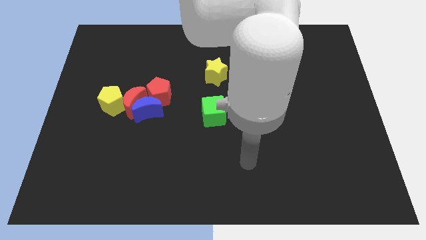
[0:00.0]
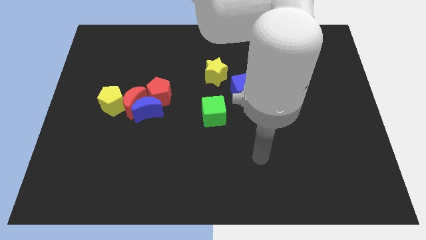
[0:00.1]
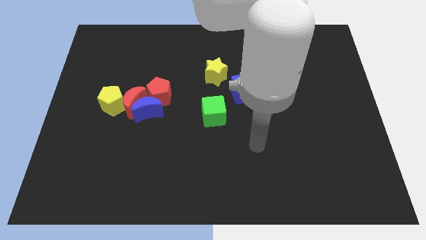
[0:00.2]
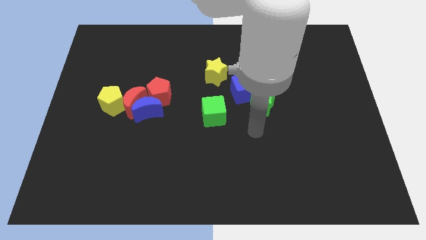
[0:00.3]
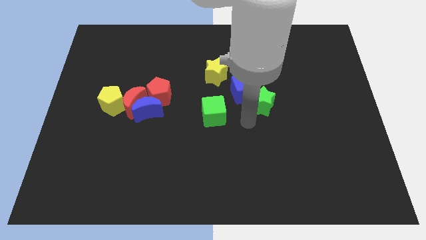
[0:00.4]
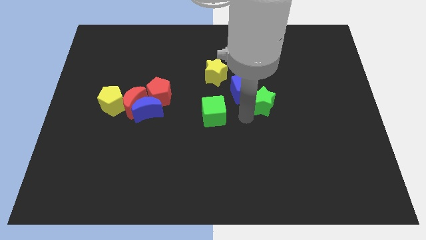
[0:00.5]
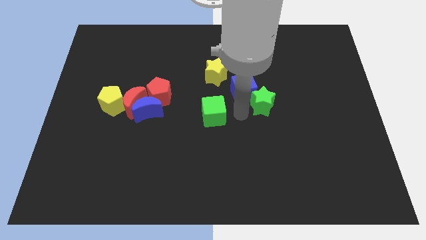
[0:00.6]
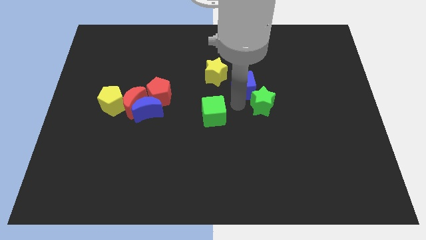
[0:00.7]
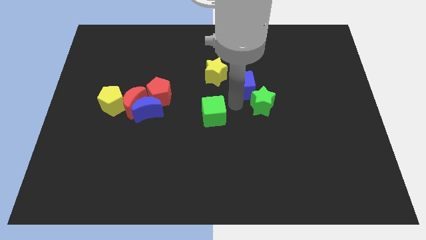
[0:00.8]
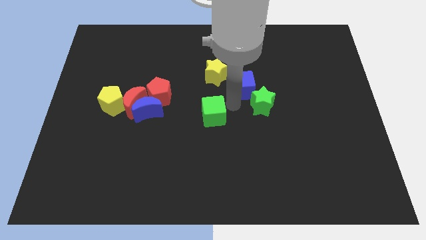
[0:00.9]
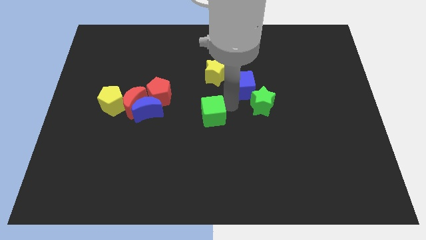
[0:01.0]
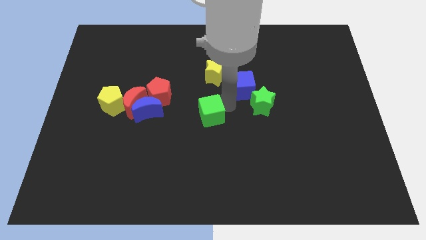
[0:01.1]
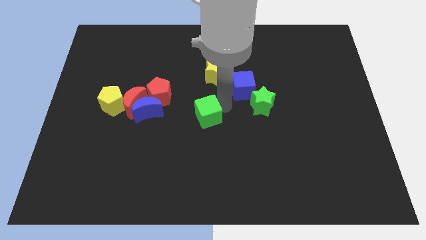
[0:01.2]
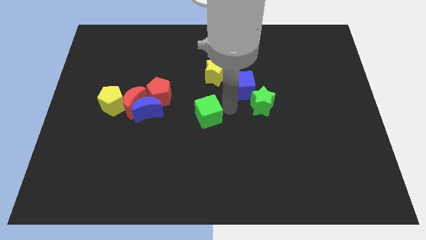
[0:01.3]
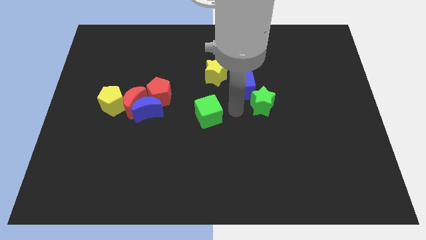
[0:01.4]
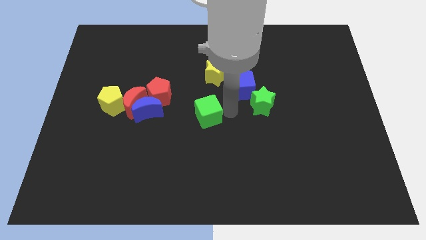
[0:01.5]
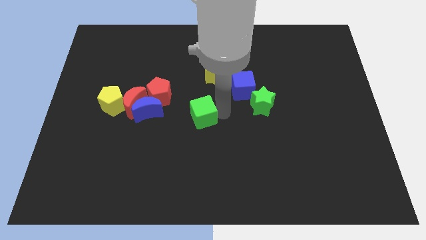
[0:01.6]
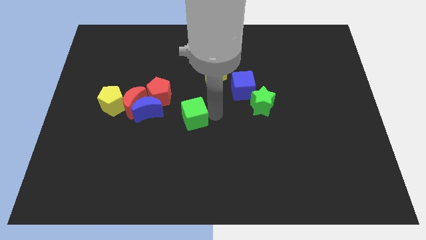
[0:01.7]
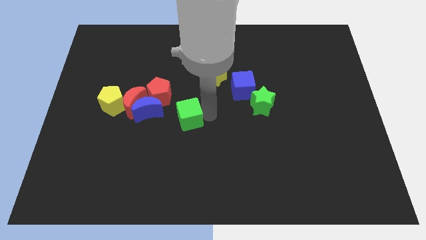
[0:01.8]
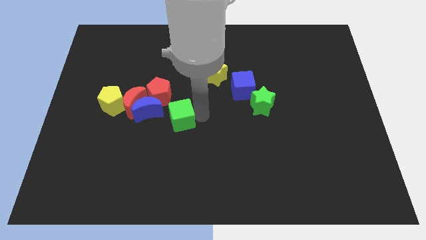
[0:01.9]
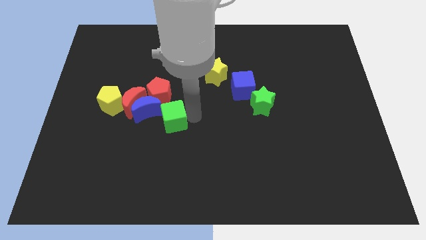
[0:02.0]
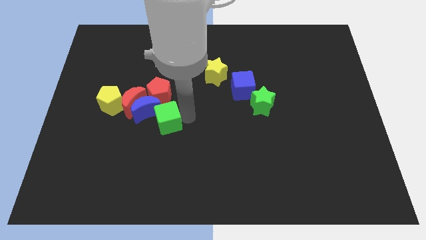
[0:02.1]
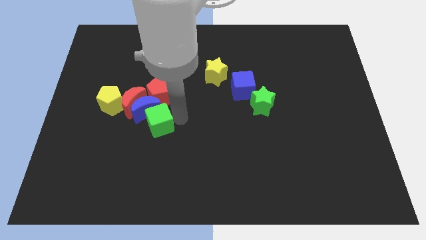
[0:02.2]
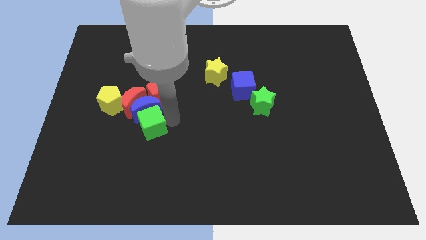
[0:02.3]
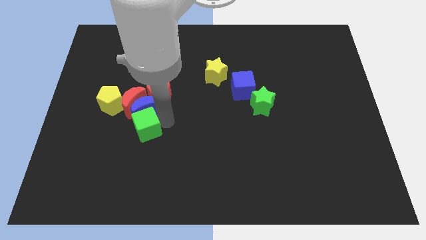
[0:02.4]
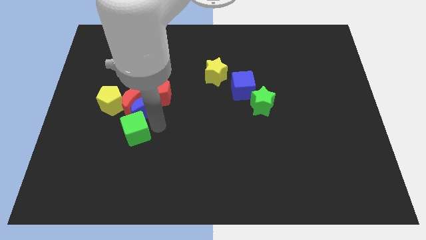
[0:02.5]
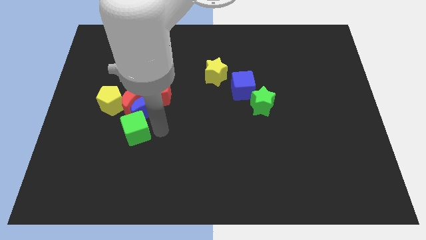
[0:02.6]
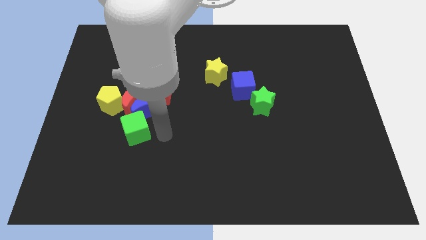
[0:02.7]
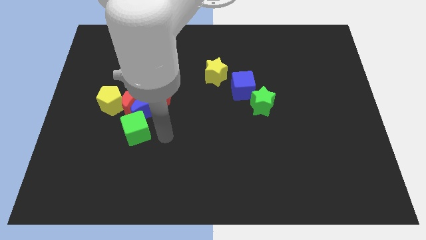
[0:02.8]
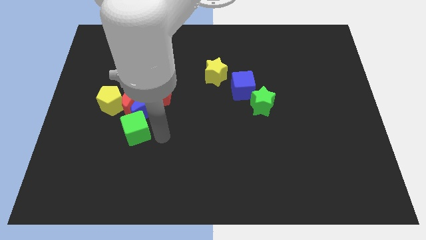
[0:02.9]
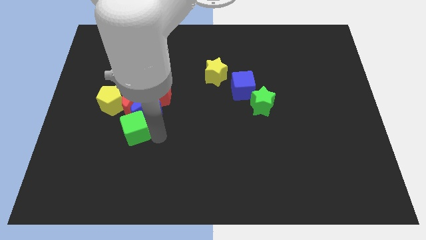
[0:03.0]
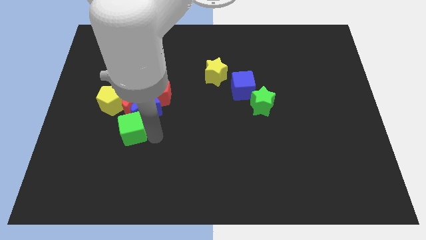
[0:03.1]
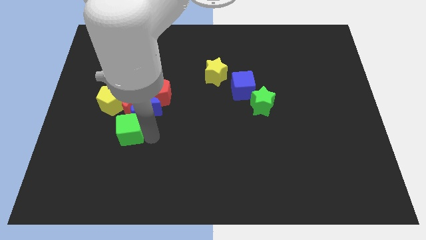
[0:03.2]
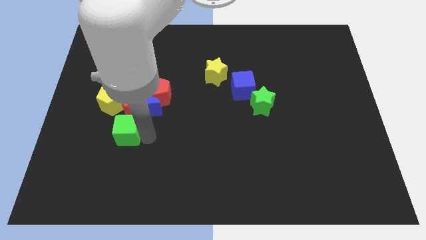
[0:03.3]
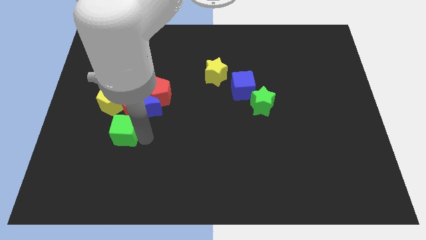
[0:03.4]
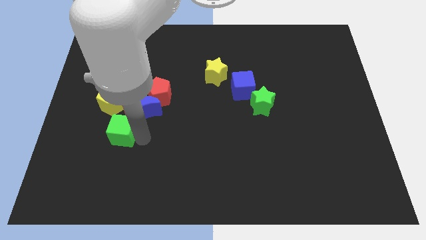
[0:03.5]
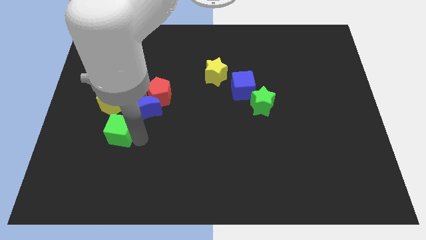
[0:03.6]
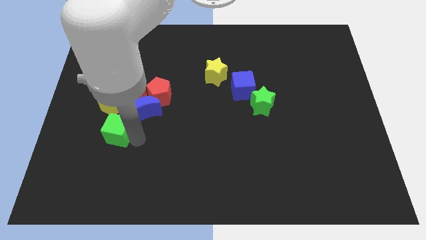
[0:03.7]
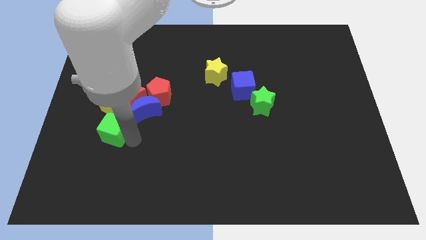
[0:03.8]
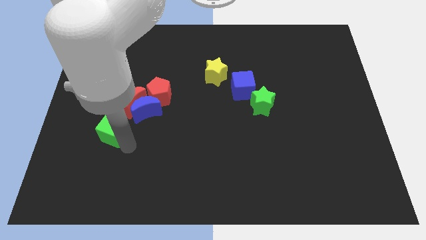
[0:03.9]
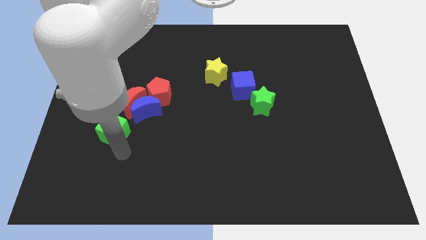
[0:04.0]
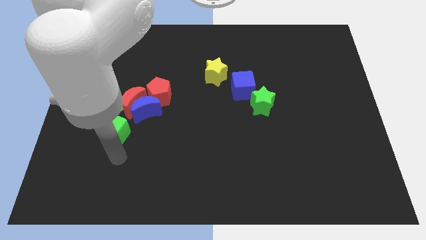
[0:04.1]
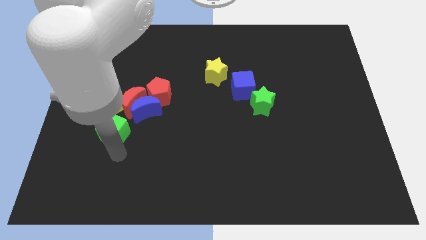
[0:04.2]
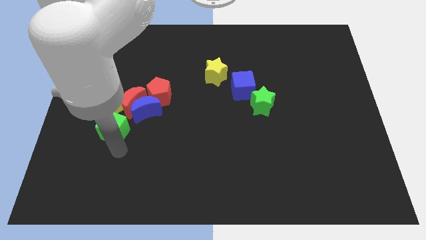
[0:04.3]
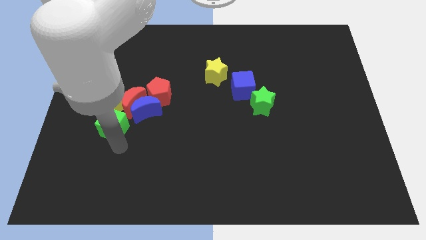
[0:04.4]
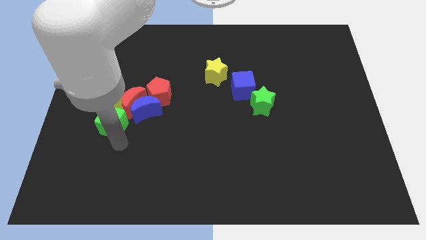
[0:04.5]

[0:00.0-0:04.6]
move the green cube to the yellow pentagon

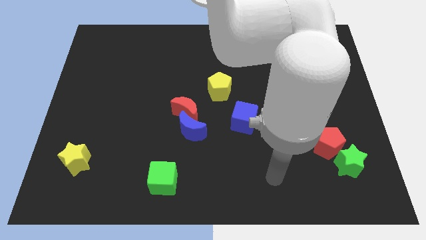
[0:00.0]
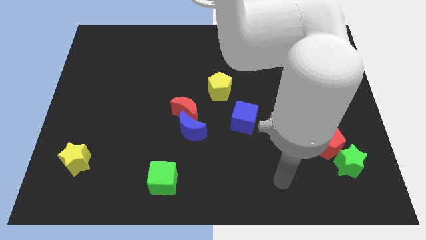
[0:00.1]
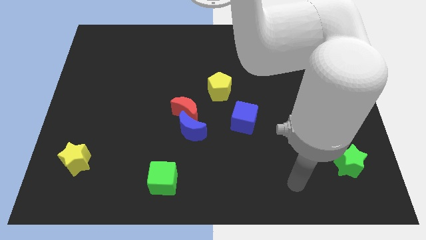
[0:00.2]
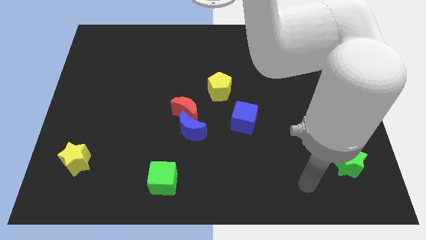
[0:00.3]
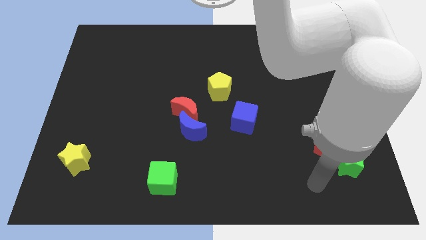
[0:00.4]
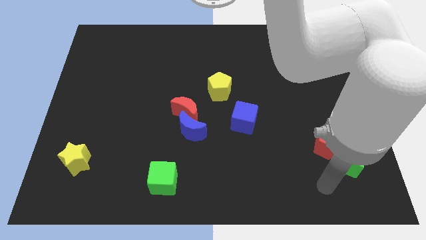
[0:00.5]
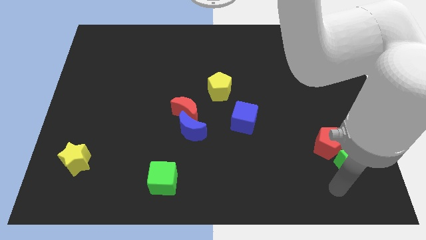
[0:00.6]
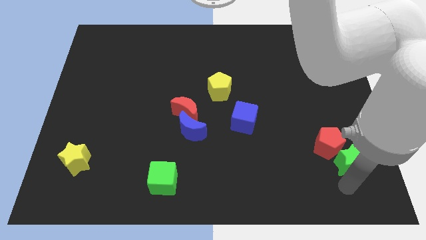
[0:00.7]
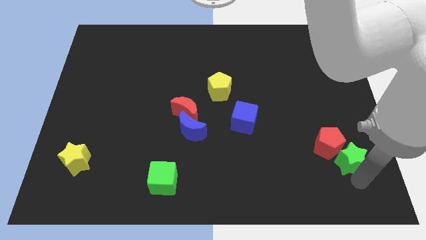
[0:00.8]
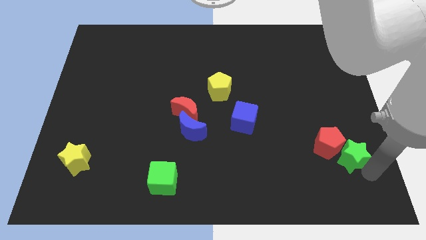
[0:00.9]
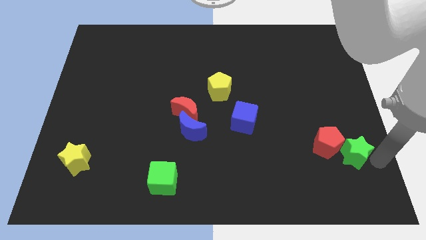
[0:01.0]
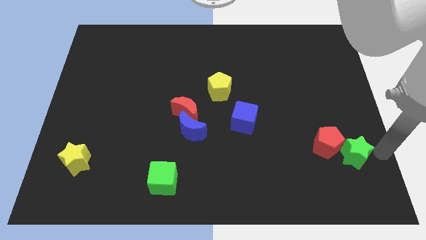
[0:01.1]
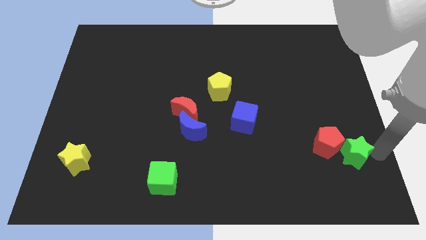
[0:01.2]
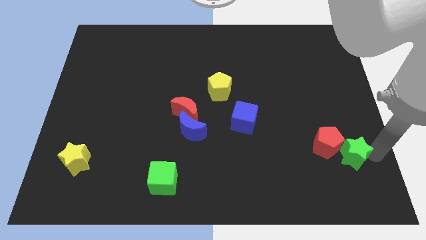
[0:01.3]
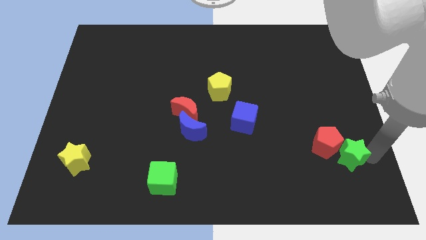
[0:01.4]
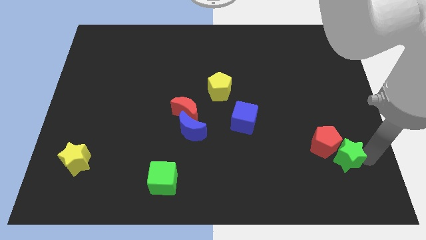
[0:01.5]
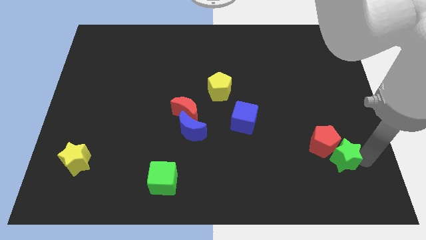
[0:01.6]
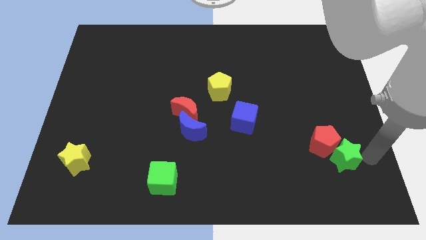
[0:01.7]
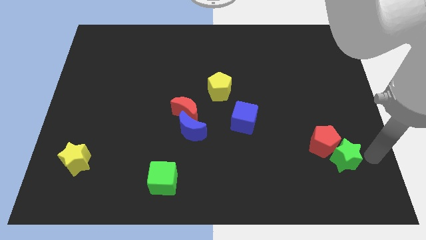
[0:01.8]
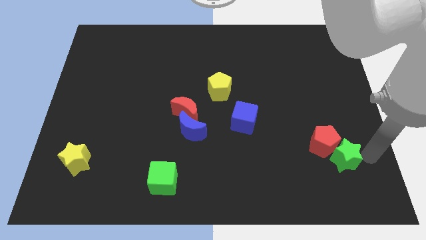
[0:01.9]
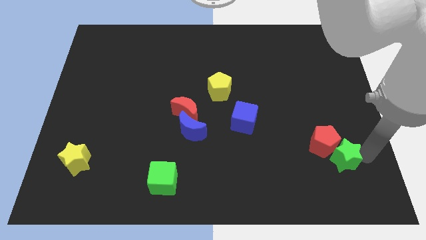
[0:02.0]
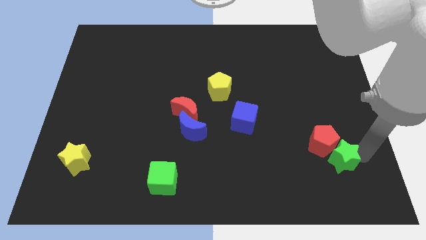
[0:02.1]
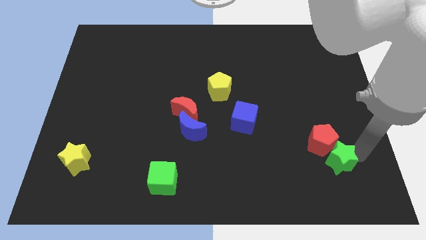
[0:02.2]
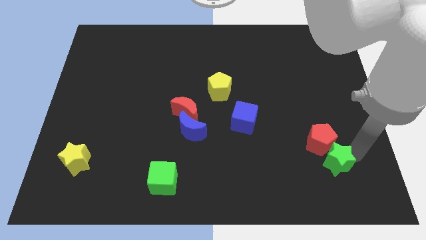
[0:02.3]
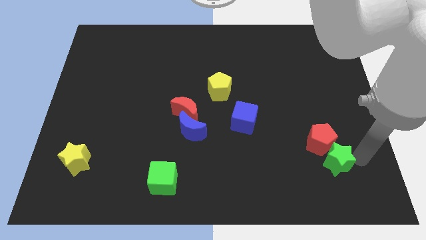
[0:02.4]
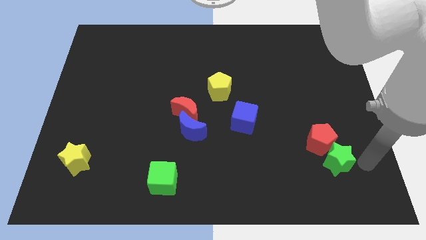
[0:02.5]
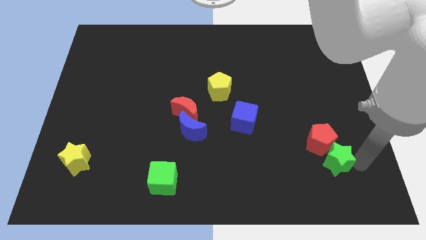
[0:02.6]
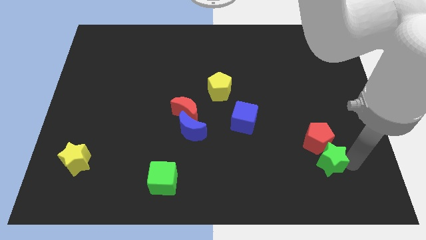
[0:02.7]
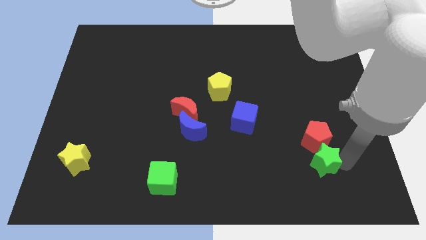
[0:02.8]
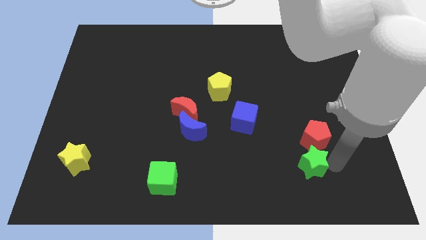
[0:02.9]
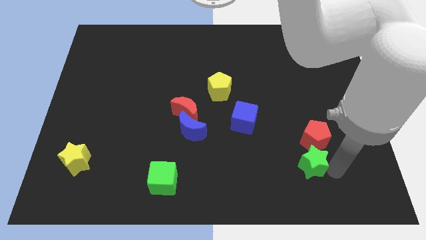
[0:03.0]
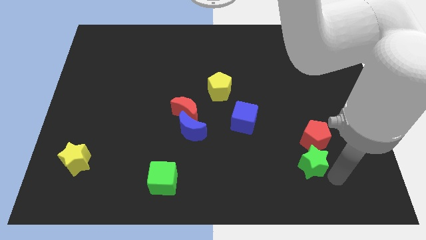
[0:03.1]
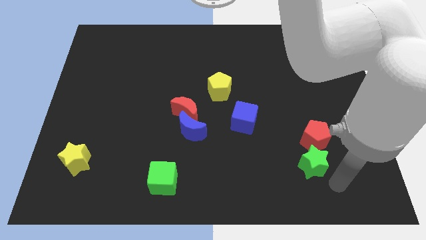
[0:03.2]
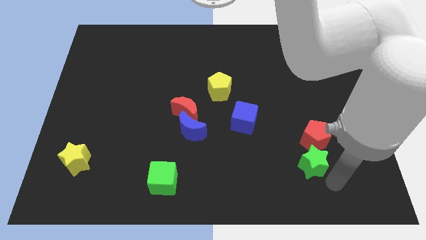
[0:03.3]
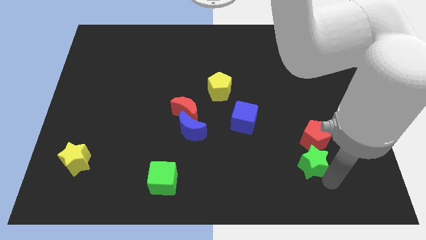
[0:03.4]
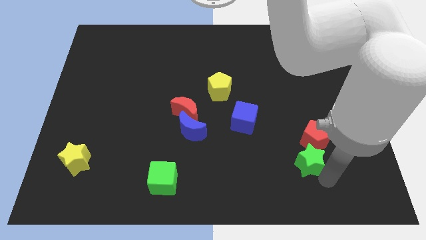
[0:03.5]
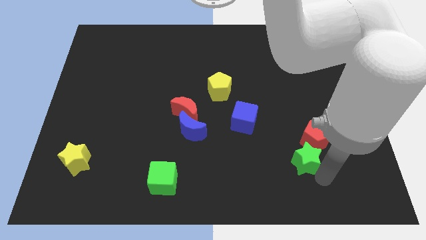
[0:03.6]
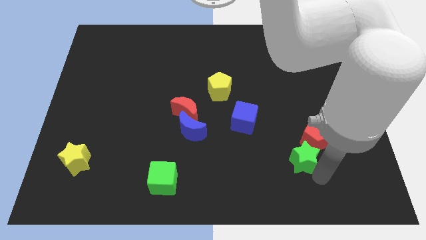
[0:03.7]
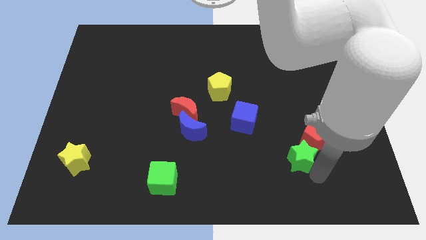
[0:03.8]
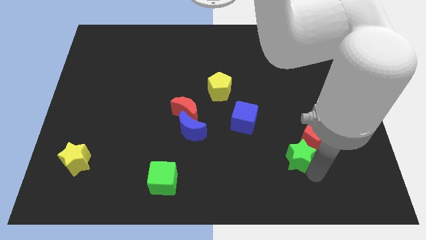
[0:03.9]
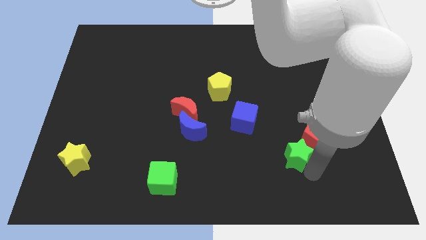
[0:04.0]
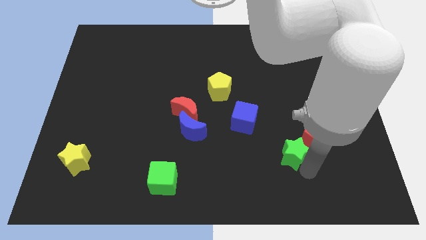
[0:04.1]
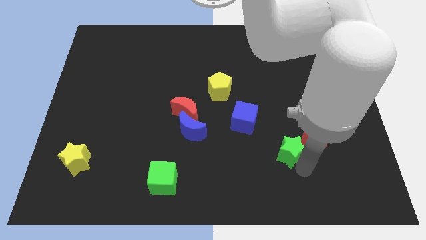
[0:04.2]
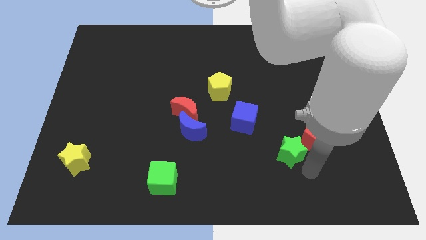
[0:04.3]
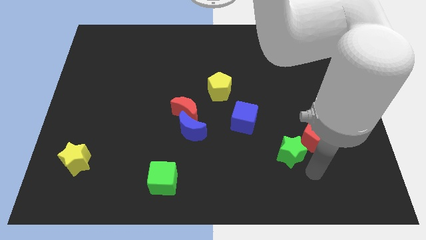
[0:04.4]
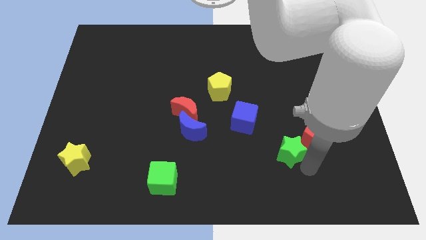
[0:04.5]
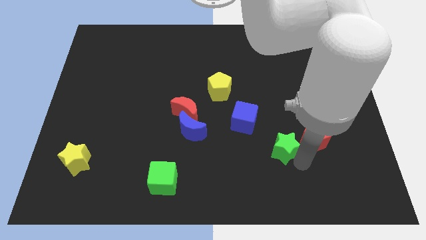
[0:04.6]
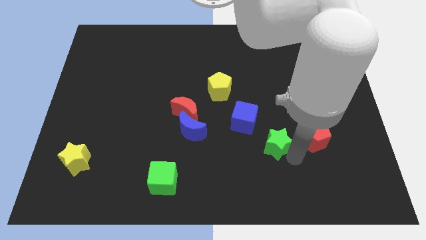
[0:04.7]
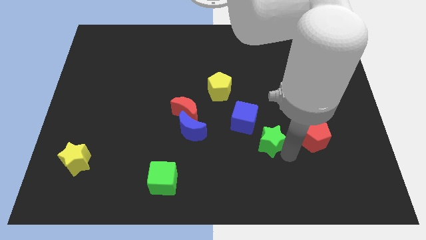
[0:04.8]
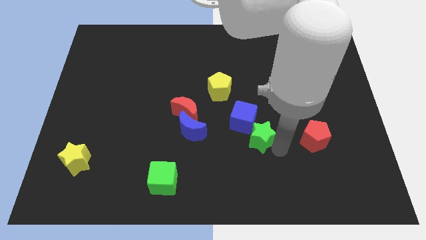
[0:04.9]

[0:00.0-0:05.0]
put the green star to the blue cube
